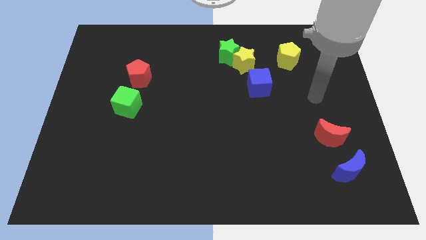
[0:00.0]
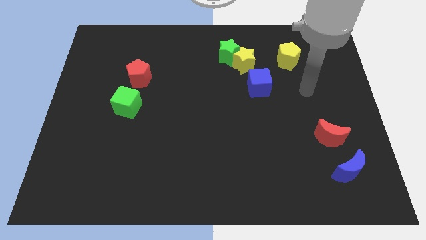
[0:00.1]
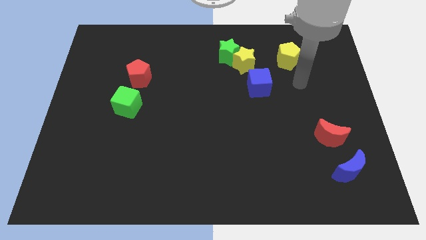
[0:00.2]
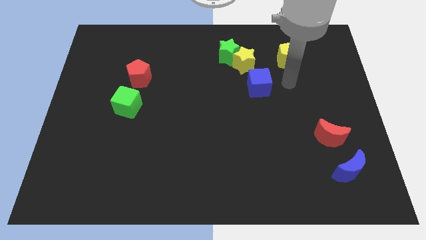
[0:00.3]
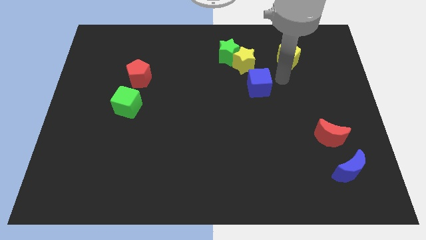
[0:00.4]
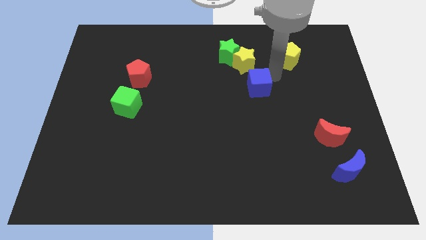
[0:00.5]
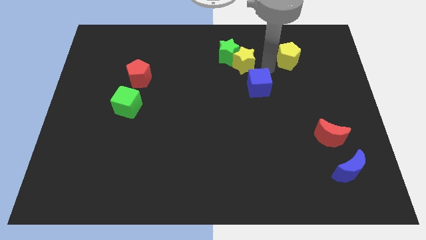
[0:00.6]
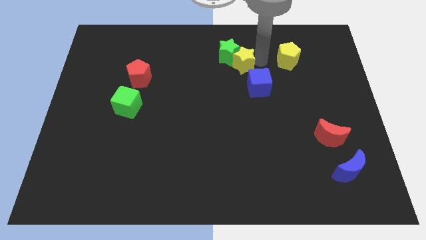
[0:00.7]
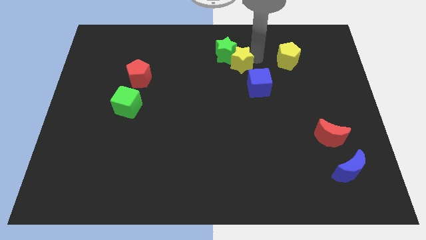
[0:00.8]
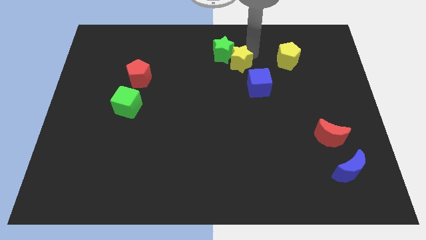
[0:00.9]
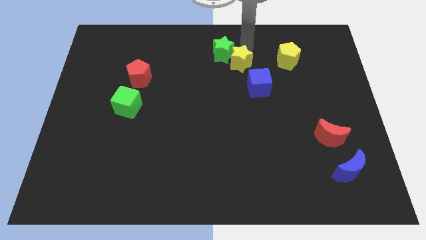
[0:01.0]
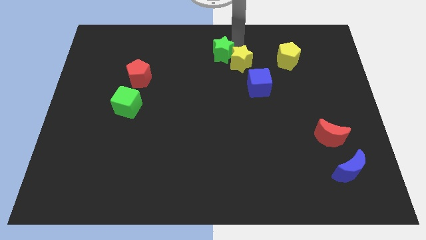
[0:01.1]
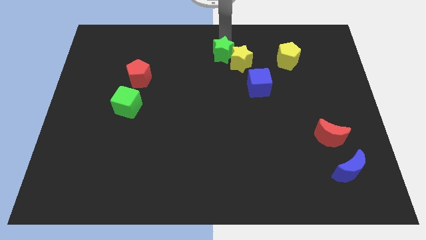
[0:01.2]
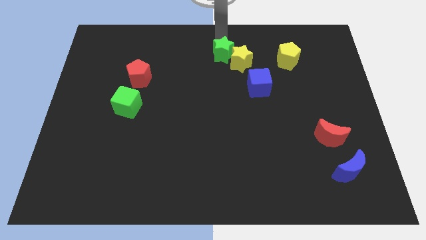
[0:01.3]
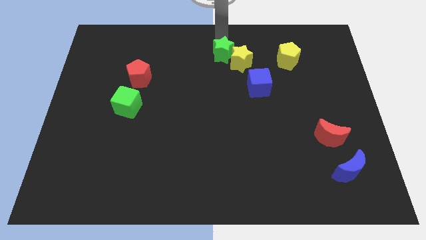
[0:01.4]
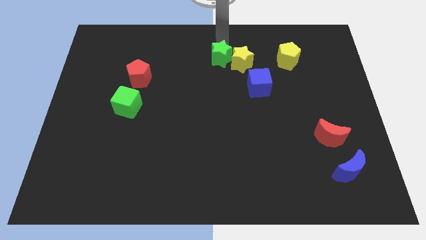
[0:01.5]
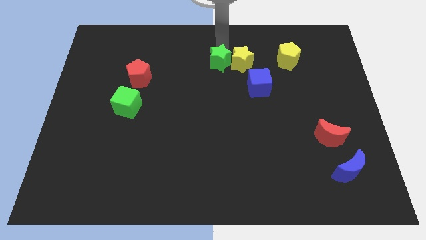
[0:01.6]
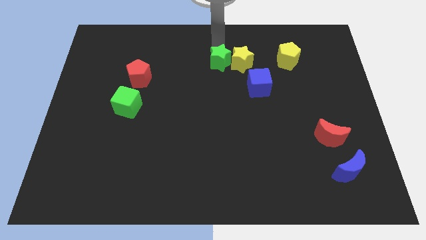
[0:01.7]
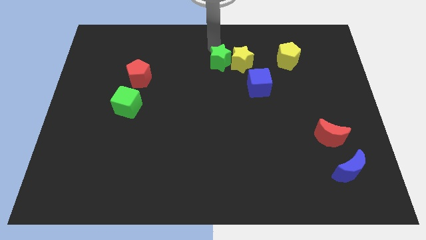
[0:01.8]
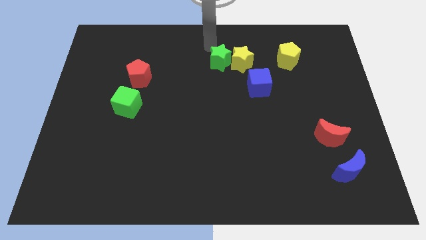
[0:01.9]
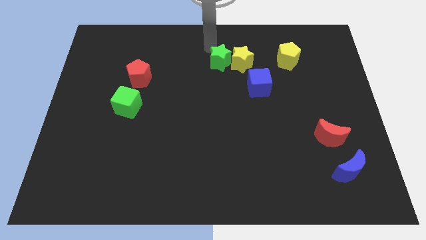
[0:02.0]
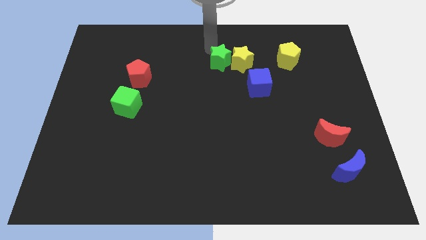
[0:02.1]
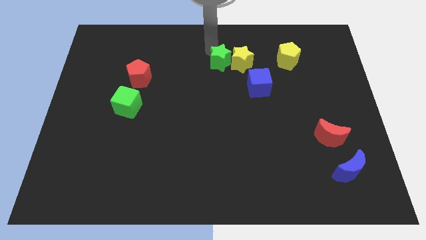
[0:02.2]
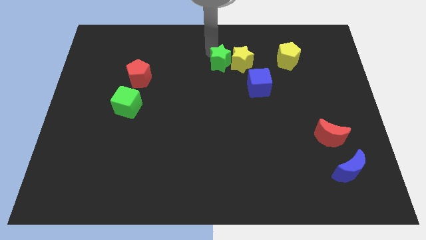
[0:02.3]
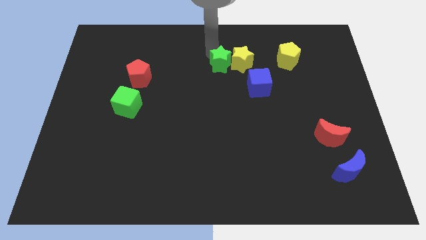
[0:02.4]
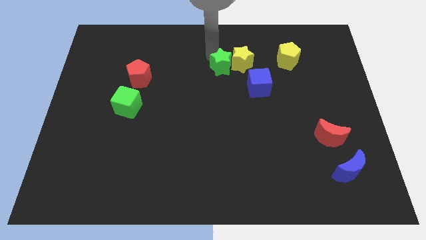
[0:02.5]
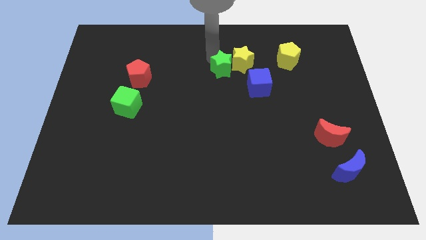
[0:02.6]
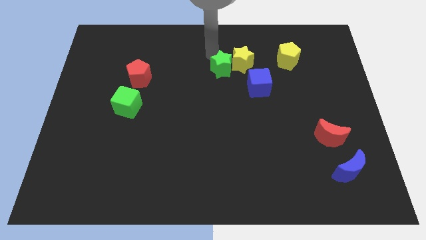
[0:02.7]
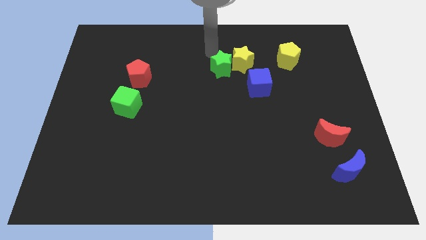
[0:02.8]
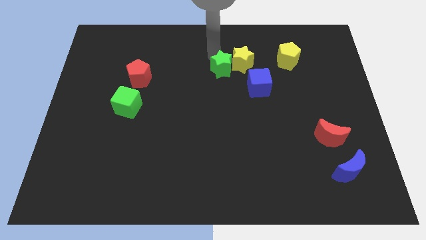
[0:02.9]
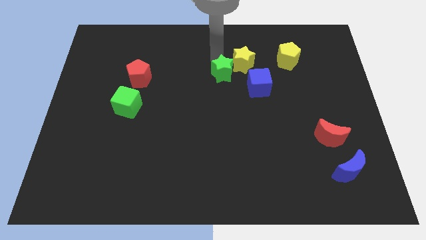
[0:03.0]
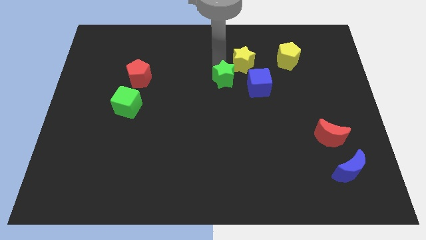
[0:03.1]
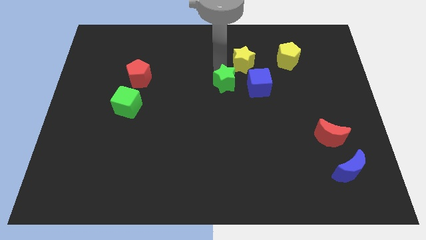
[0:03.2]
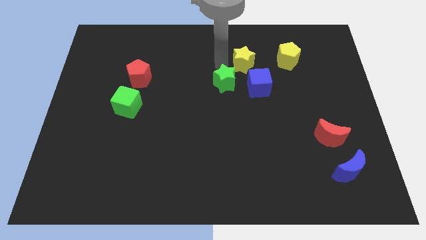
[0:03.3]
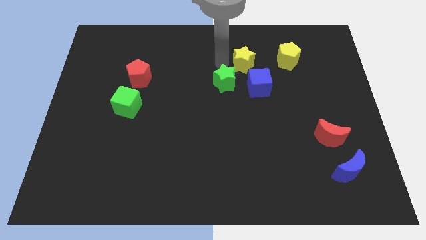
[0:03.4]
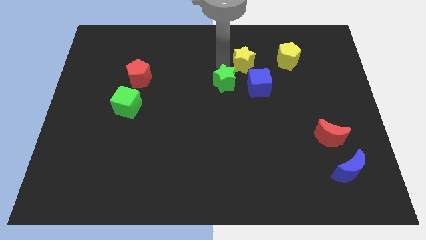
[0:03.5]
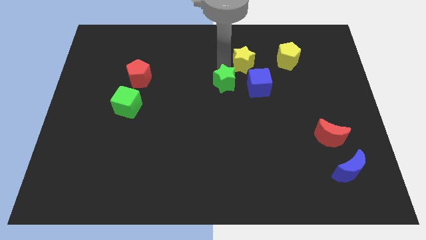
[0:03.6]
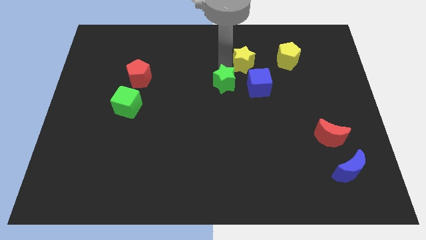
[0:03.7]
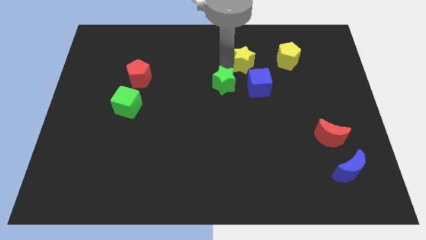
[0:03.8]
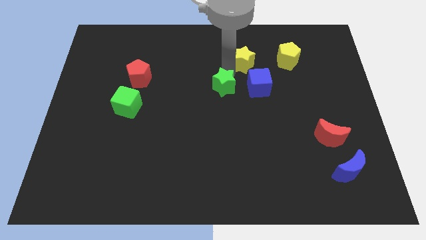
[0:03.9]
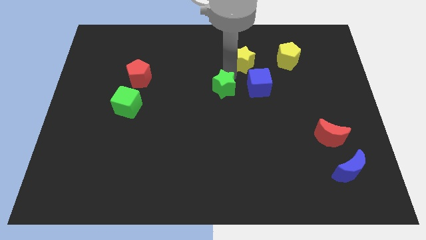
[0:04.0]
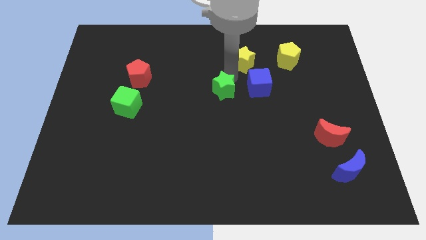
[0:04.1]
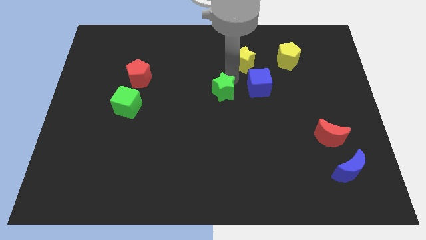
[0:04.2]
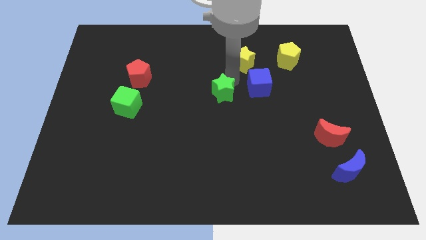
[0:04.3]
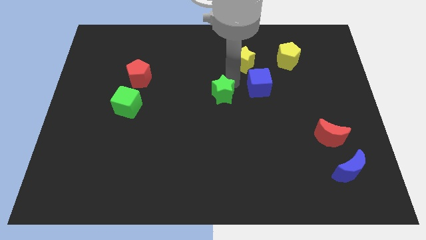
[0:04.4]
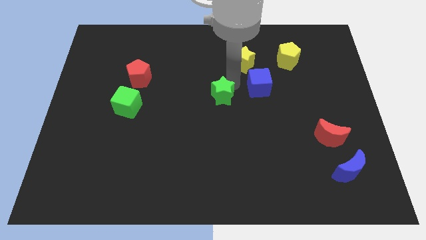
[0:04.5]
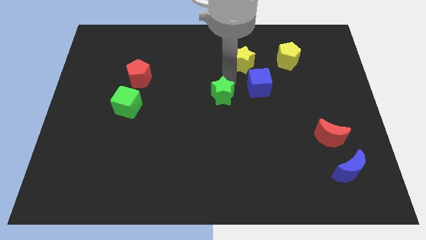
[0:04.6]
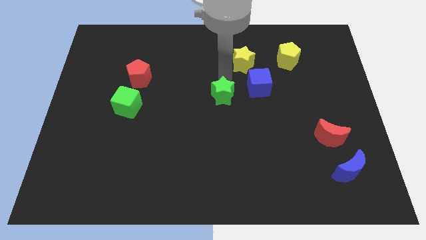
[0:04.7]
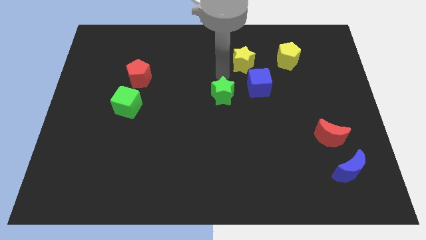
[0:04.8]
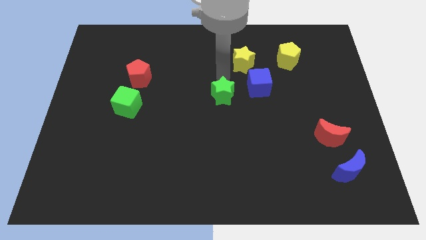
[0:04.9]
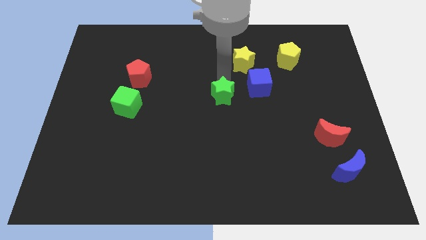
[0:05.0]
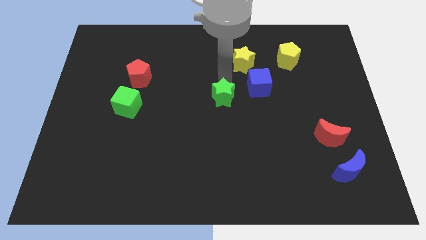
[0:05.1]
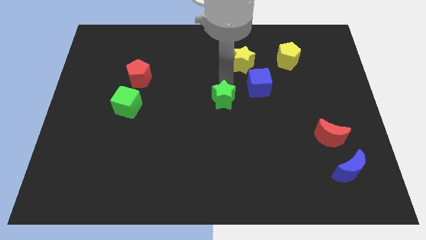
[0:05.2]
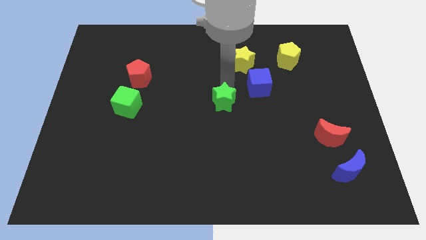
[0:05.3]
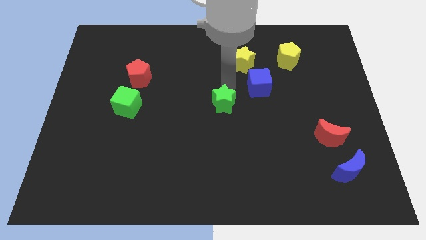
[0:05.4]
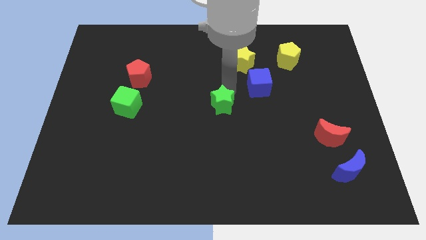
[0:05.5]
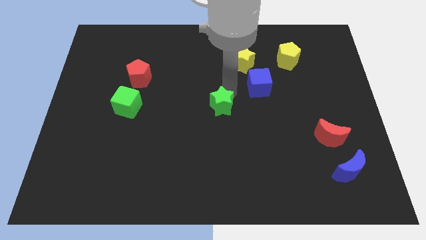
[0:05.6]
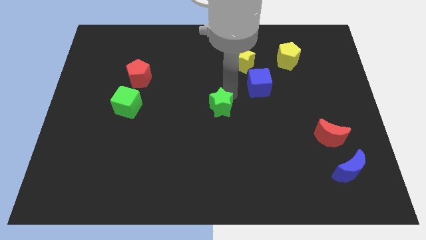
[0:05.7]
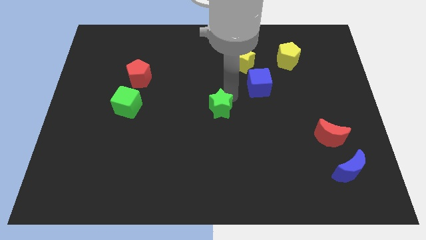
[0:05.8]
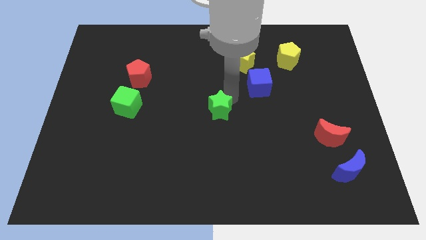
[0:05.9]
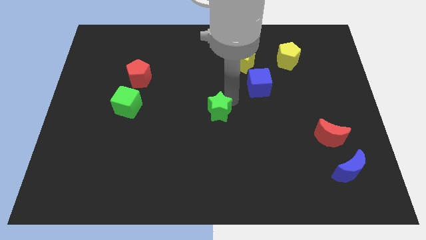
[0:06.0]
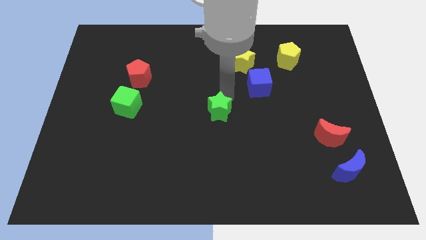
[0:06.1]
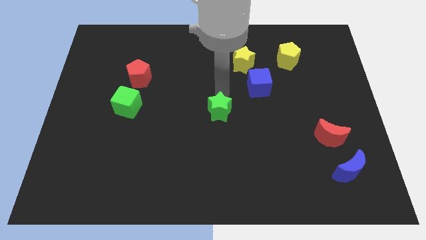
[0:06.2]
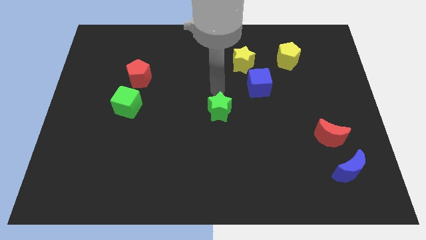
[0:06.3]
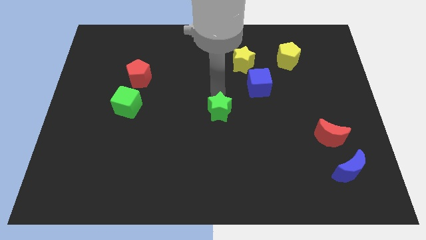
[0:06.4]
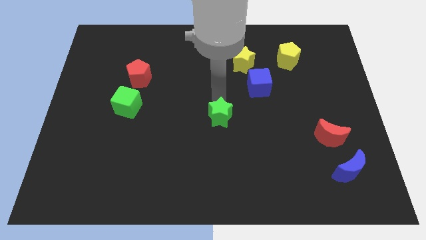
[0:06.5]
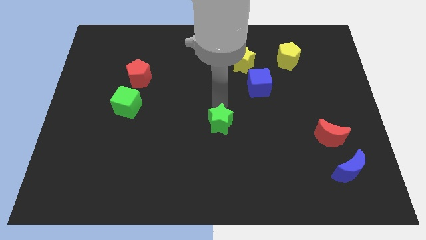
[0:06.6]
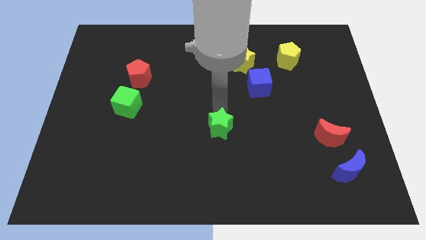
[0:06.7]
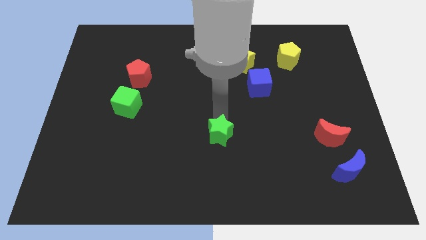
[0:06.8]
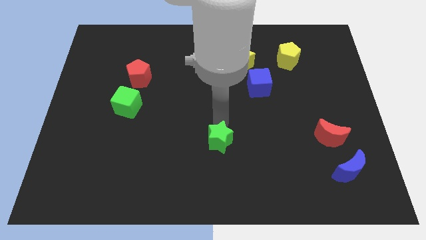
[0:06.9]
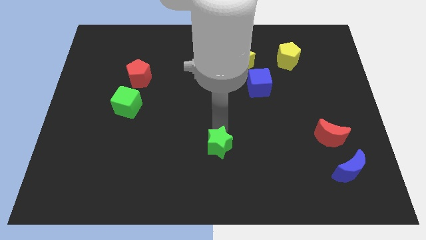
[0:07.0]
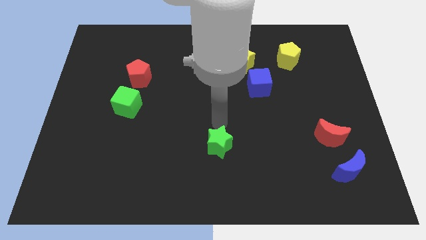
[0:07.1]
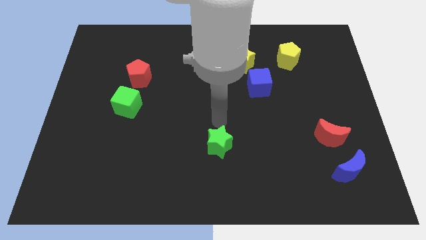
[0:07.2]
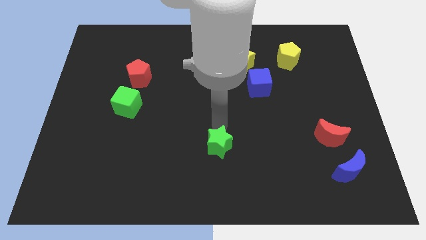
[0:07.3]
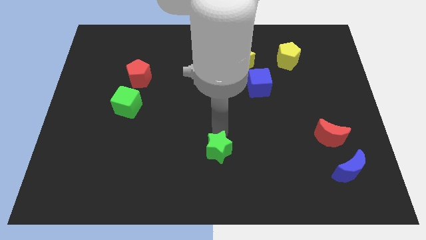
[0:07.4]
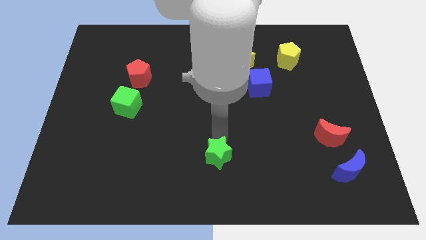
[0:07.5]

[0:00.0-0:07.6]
put the green star to the bottom side
